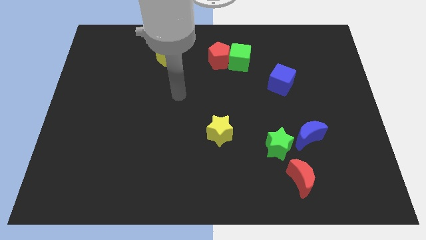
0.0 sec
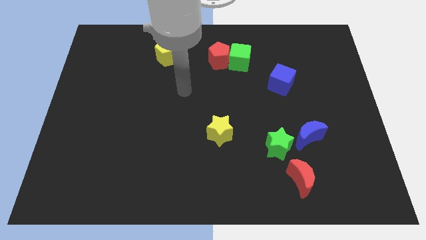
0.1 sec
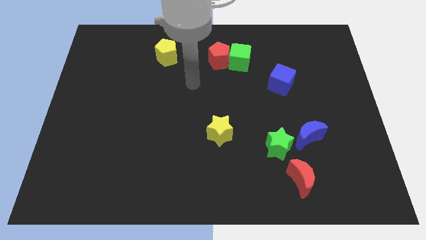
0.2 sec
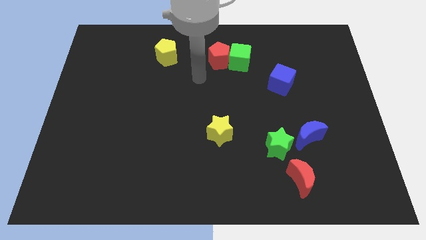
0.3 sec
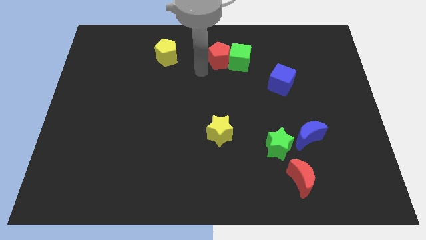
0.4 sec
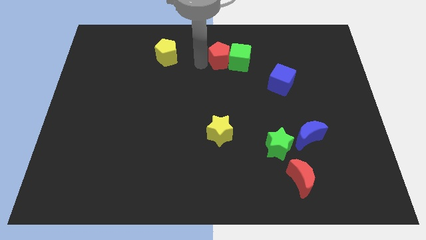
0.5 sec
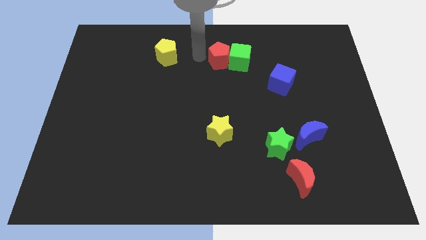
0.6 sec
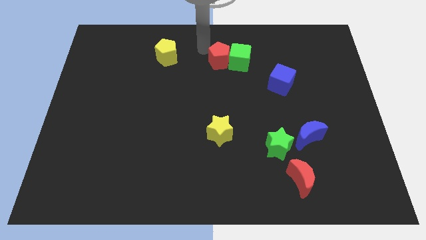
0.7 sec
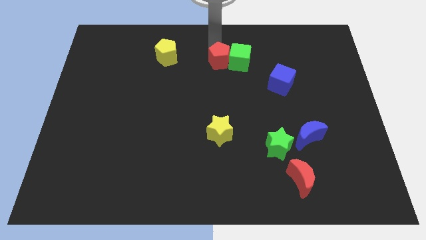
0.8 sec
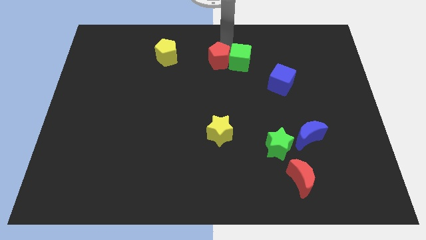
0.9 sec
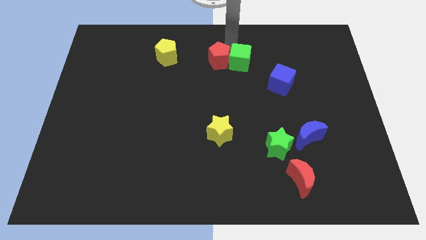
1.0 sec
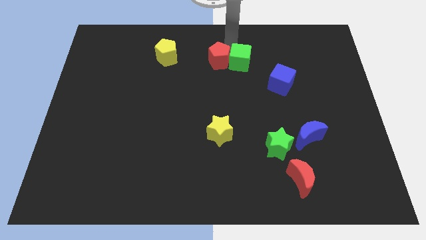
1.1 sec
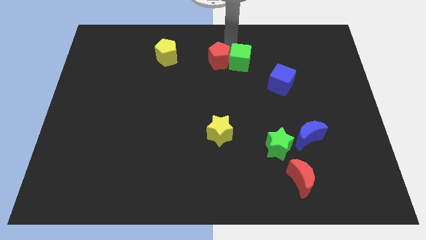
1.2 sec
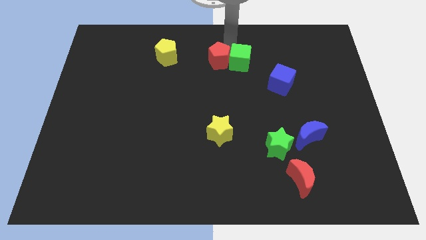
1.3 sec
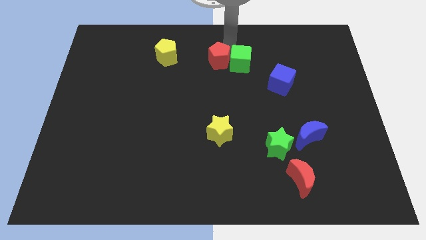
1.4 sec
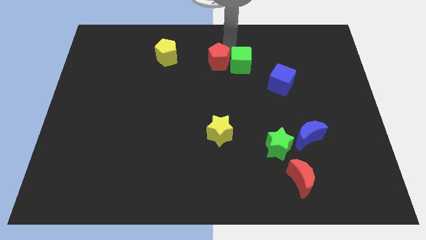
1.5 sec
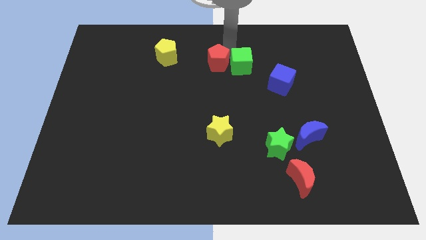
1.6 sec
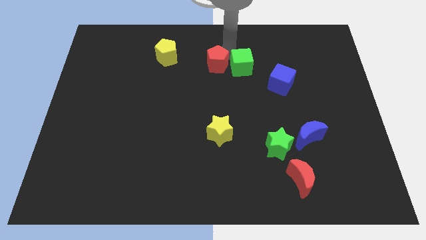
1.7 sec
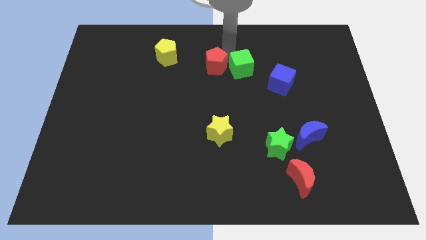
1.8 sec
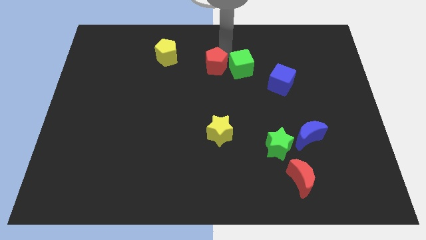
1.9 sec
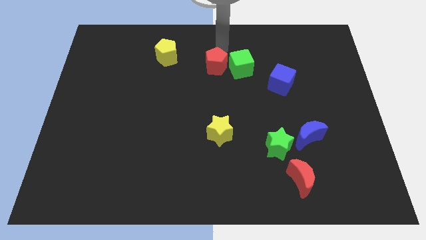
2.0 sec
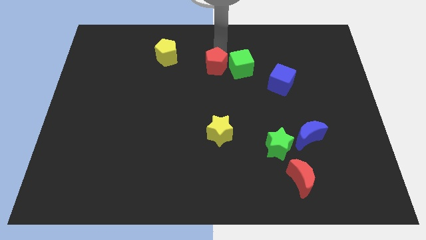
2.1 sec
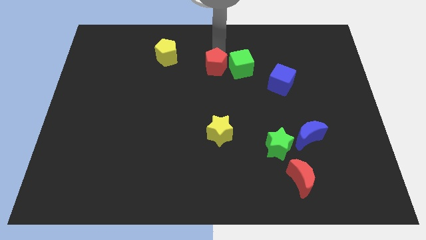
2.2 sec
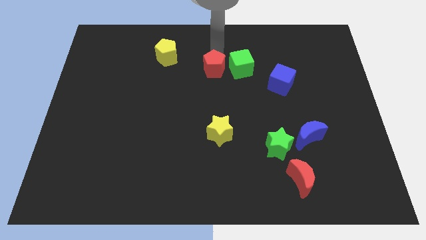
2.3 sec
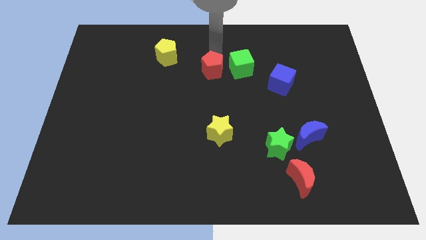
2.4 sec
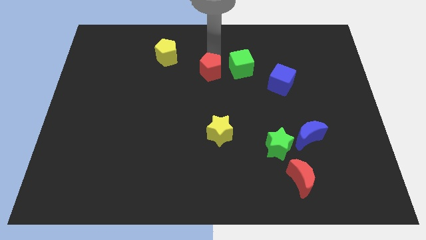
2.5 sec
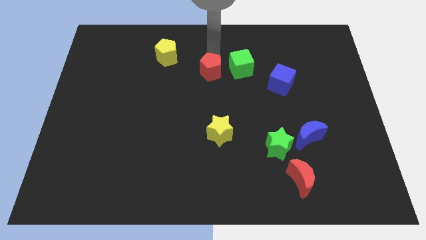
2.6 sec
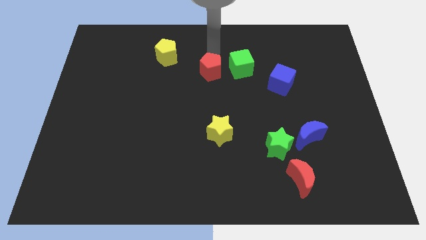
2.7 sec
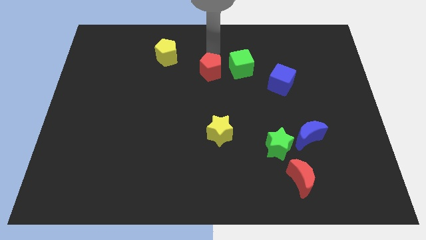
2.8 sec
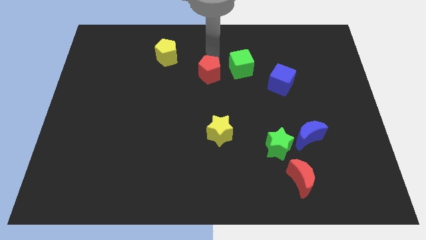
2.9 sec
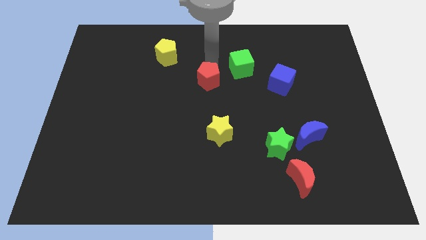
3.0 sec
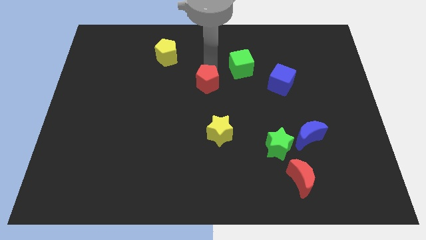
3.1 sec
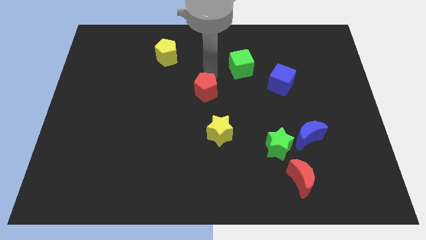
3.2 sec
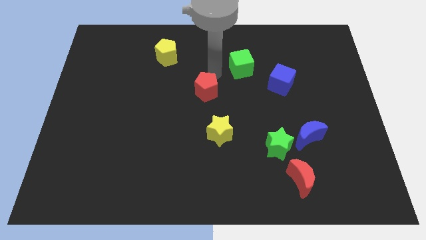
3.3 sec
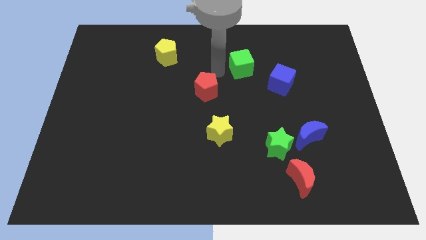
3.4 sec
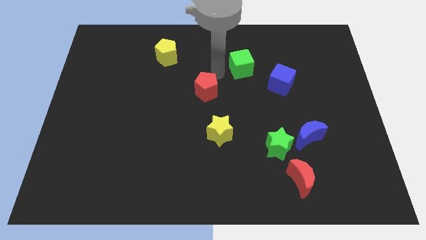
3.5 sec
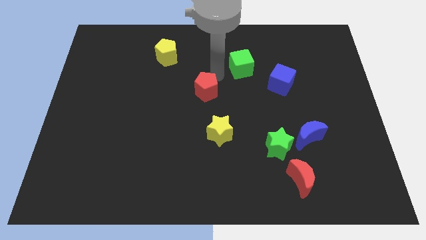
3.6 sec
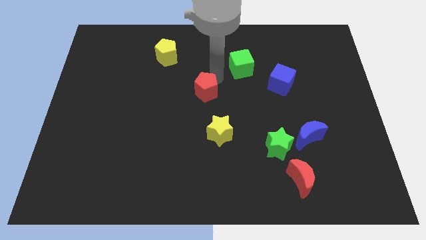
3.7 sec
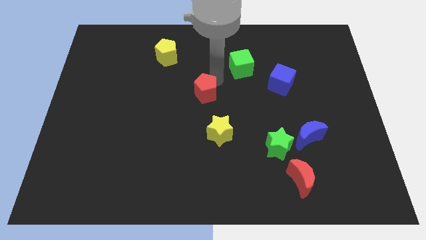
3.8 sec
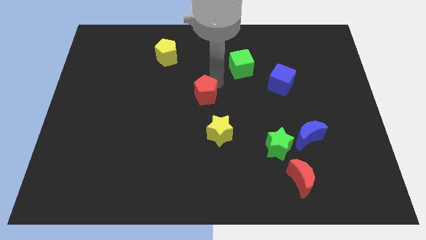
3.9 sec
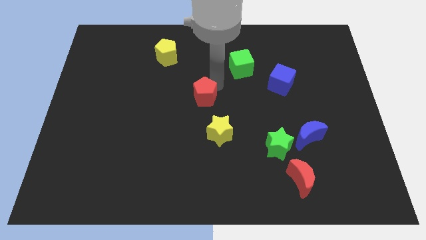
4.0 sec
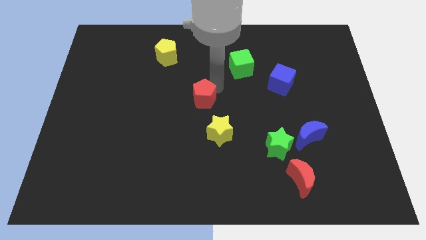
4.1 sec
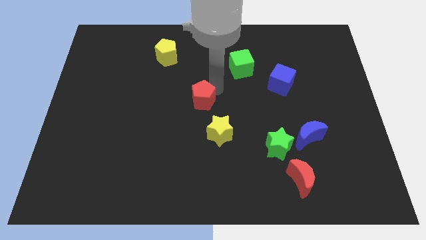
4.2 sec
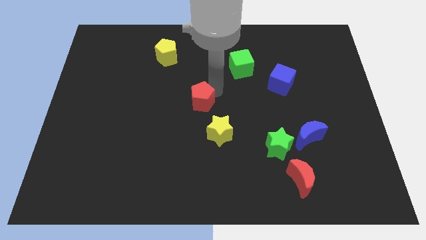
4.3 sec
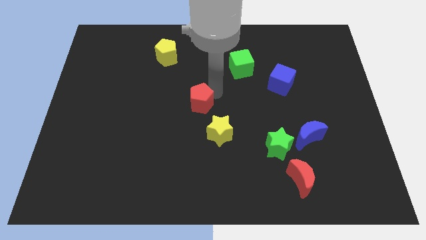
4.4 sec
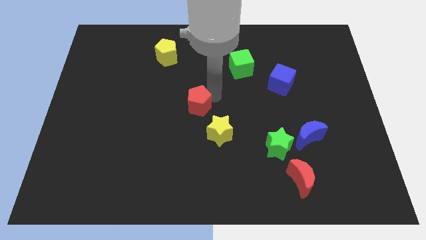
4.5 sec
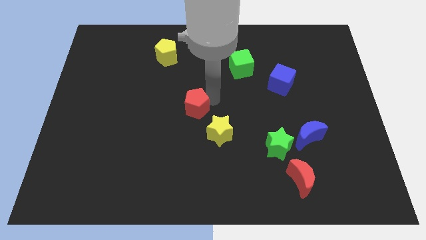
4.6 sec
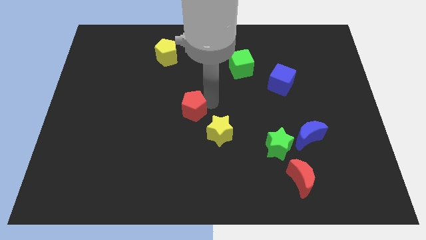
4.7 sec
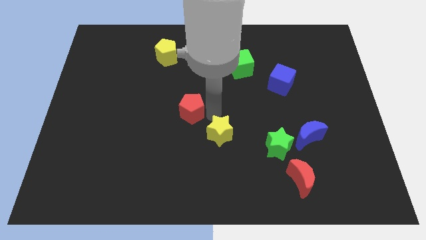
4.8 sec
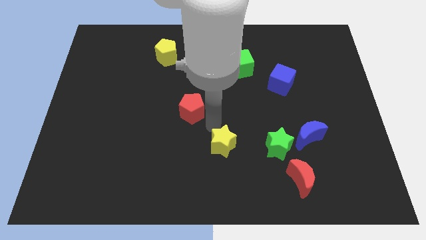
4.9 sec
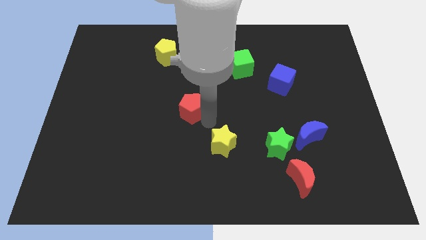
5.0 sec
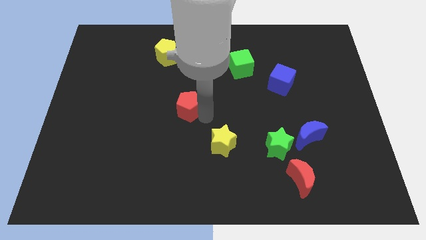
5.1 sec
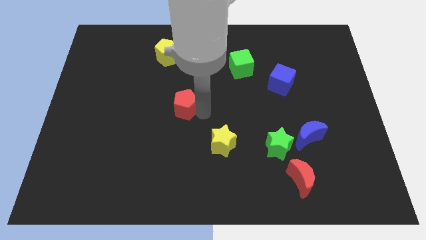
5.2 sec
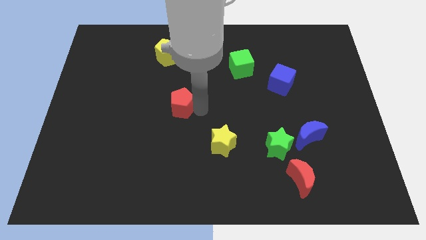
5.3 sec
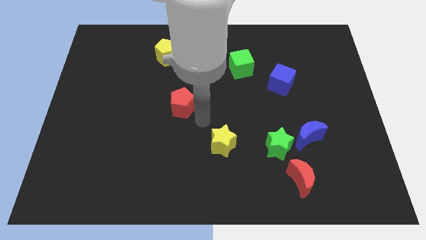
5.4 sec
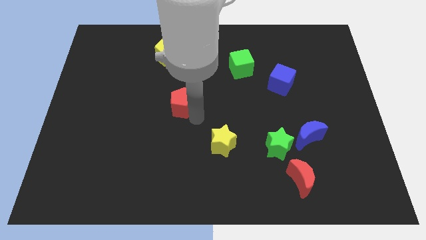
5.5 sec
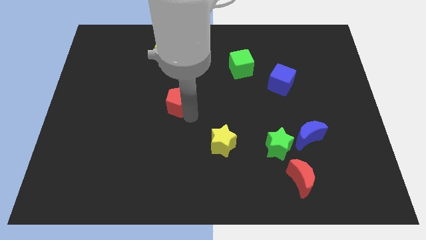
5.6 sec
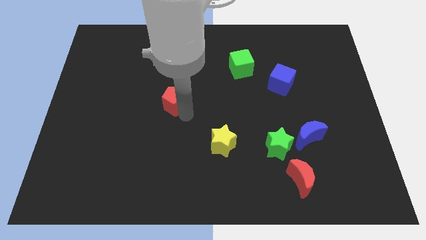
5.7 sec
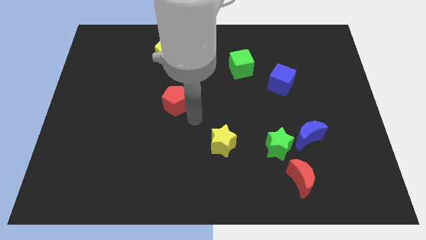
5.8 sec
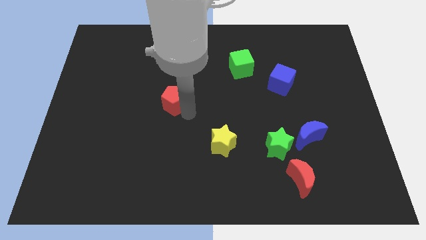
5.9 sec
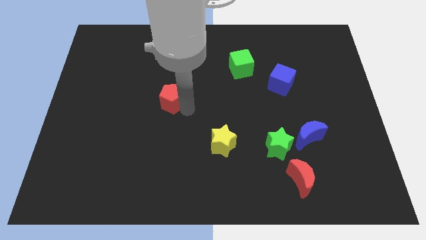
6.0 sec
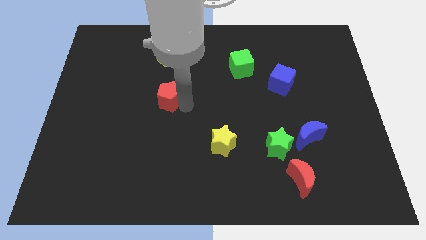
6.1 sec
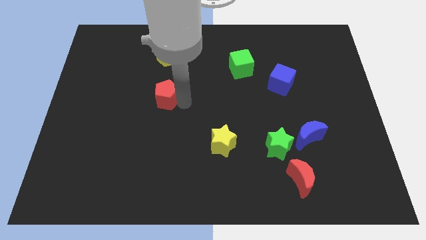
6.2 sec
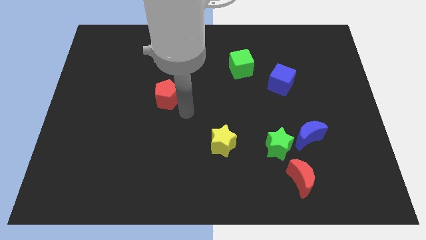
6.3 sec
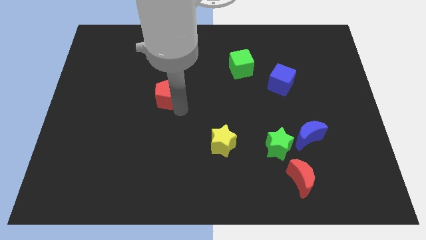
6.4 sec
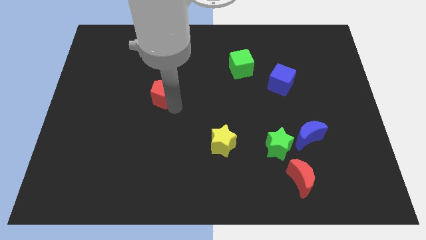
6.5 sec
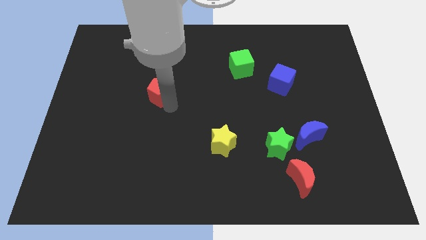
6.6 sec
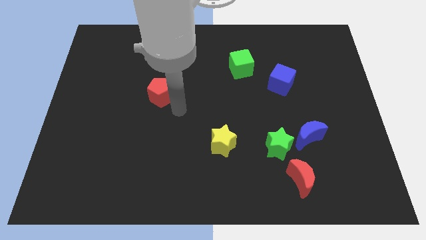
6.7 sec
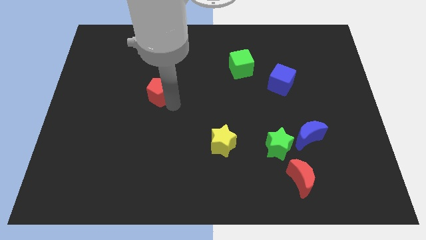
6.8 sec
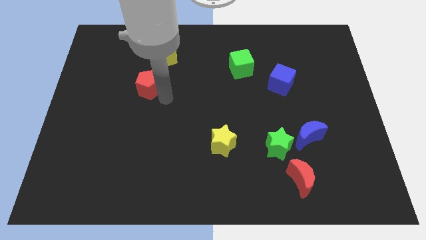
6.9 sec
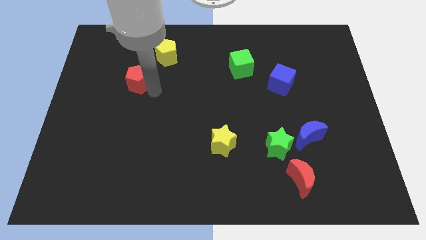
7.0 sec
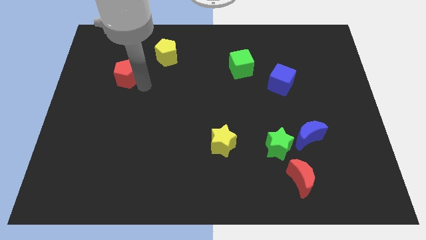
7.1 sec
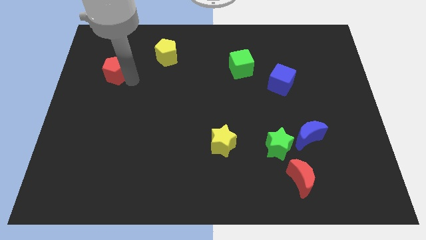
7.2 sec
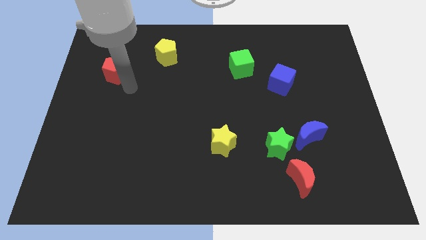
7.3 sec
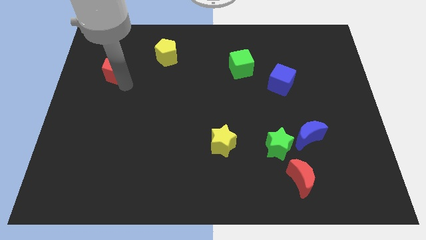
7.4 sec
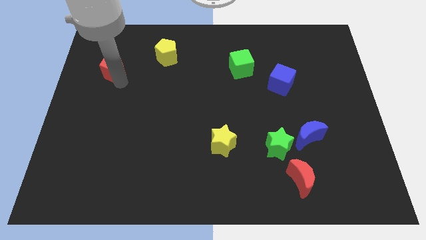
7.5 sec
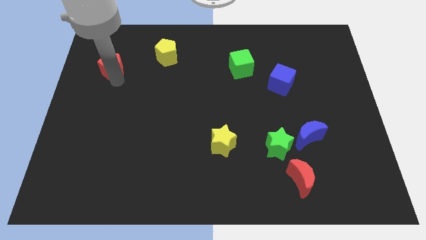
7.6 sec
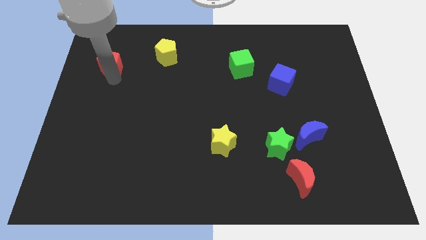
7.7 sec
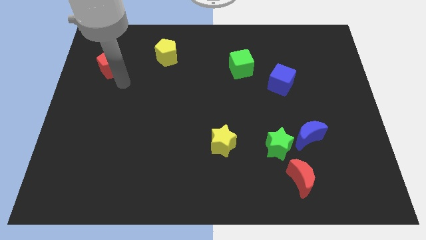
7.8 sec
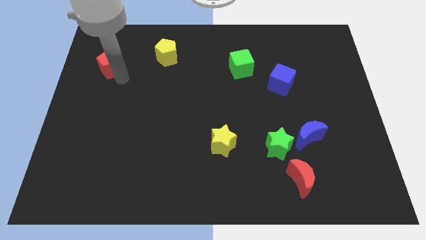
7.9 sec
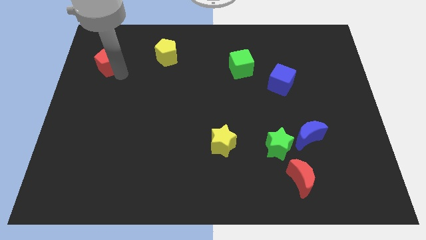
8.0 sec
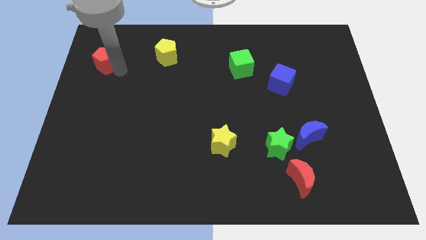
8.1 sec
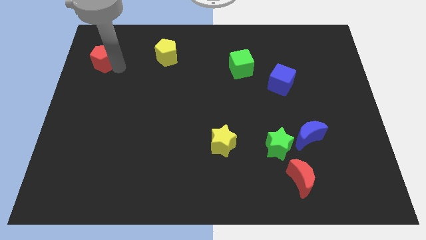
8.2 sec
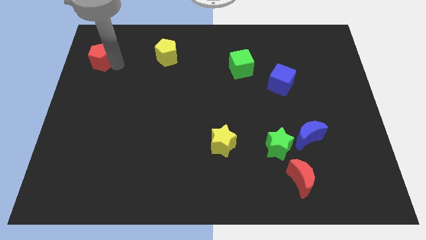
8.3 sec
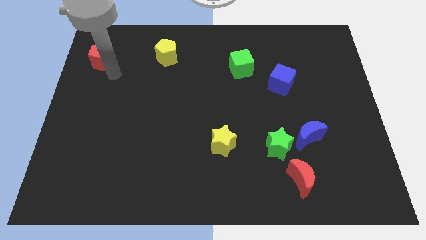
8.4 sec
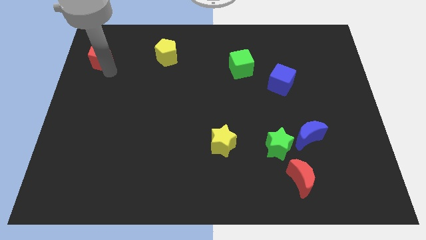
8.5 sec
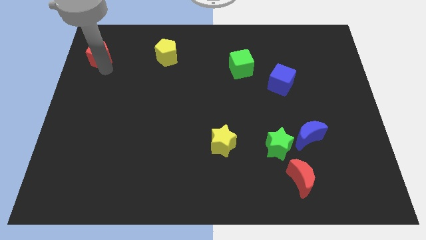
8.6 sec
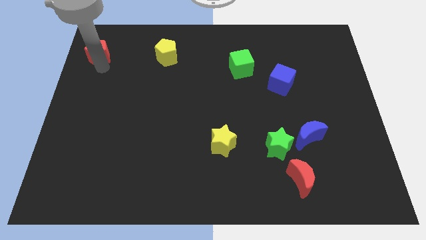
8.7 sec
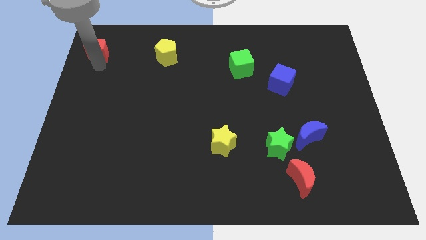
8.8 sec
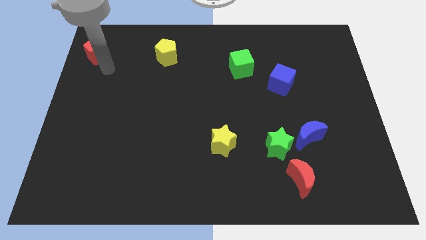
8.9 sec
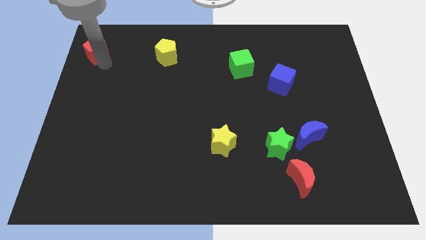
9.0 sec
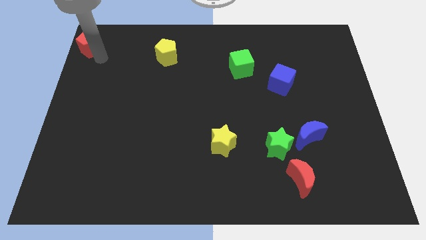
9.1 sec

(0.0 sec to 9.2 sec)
move the red pentagon to the upper left corner
